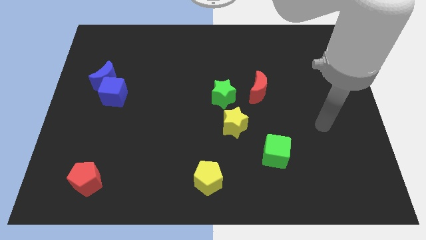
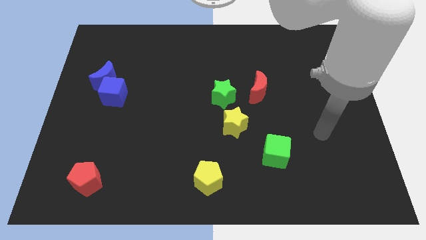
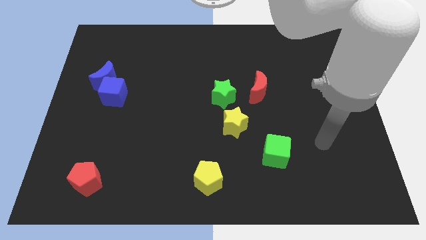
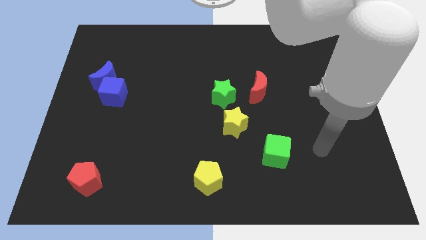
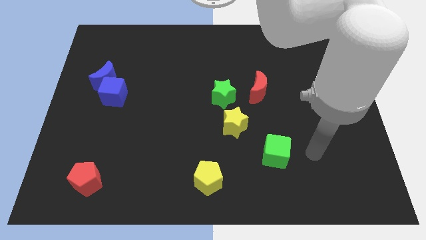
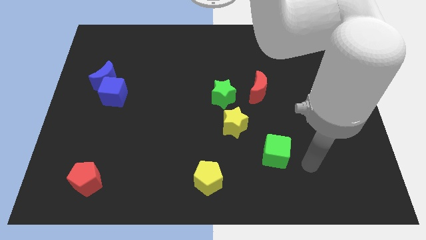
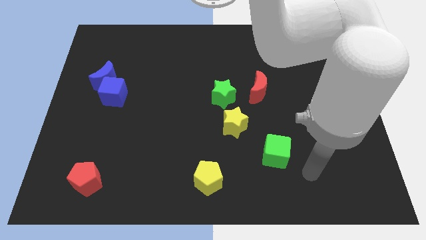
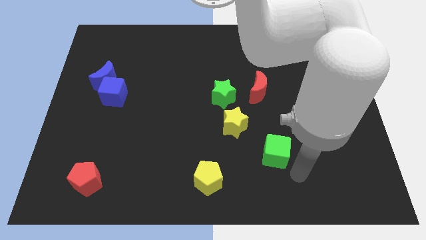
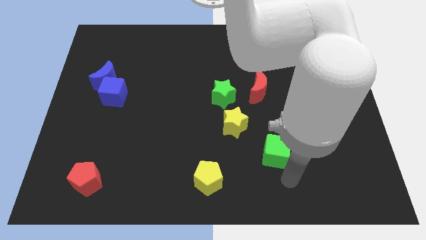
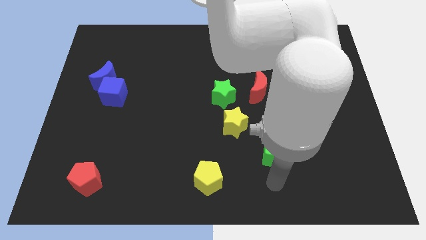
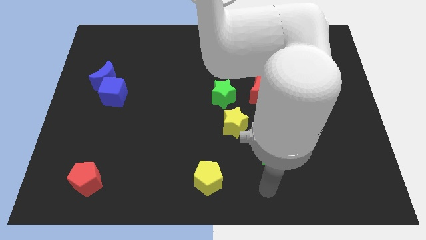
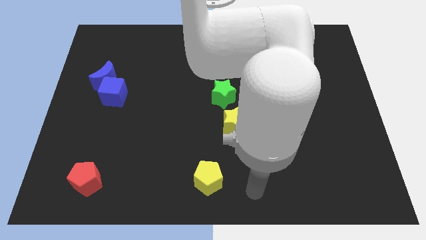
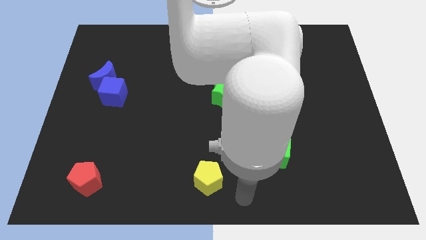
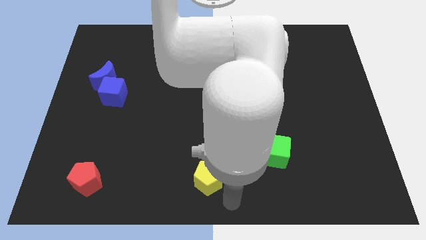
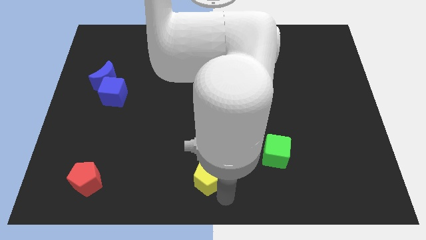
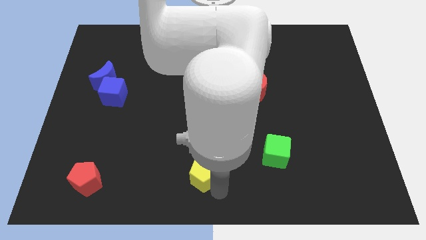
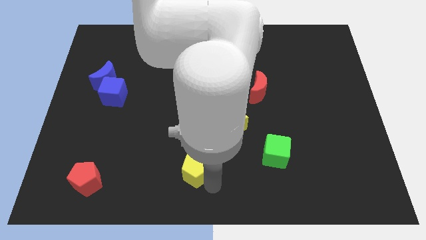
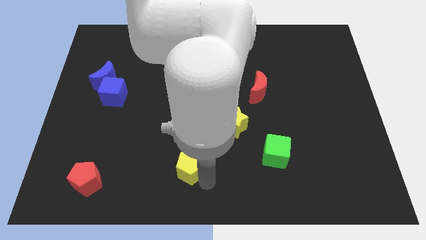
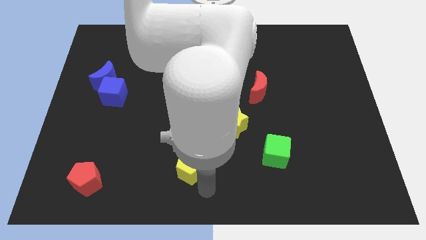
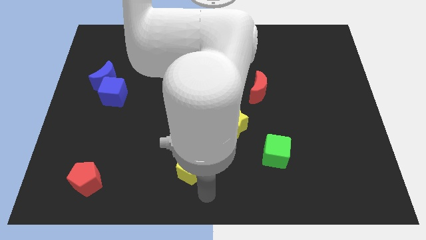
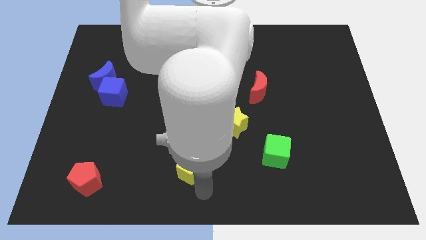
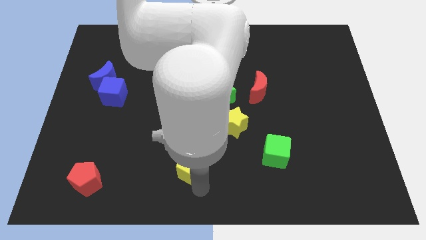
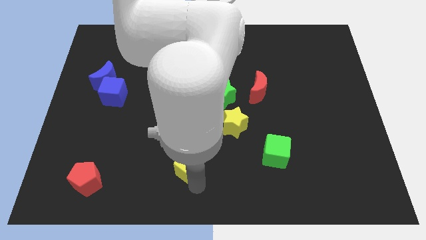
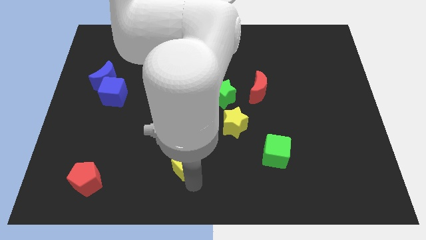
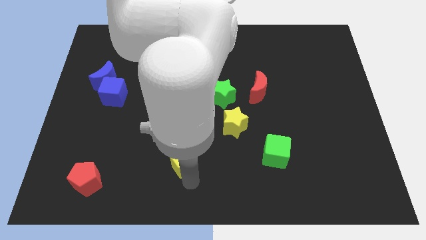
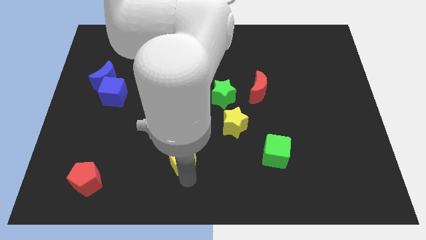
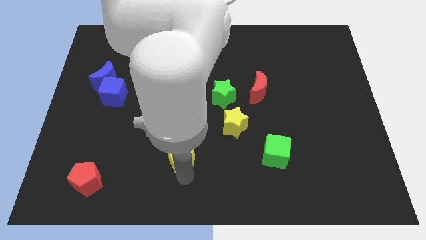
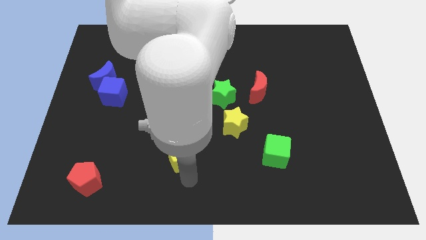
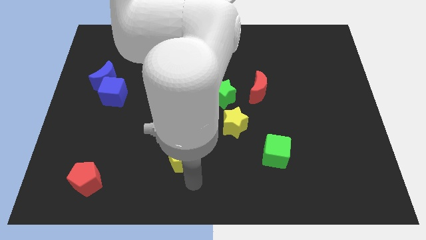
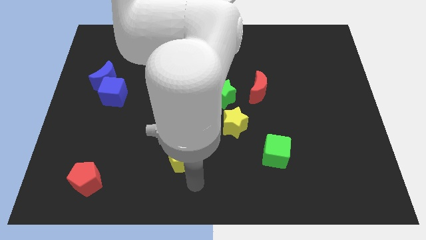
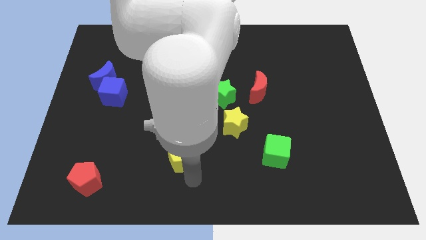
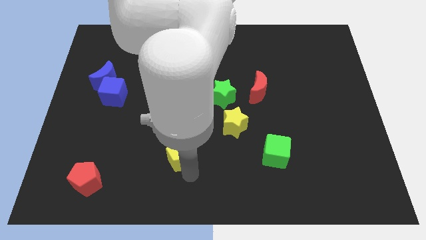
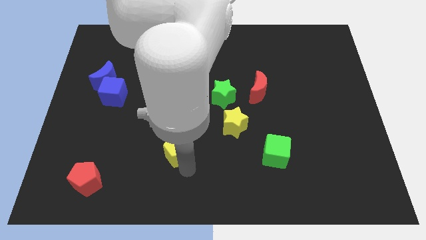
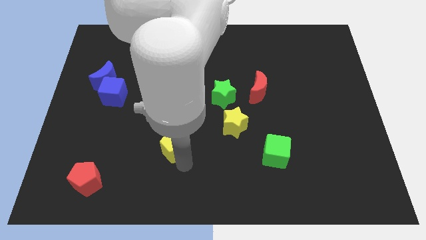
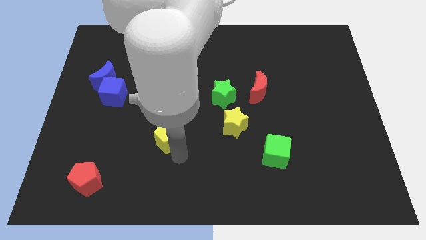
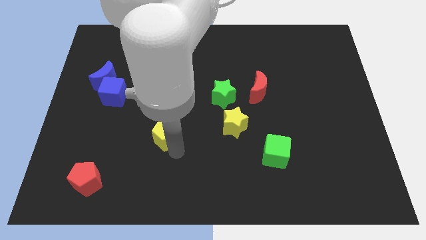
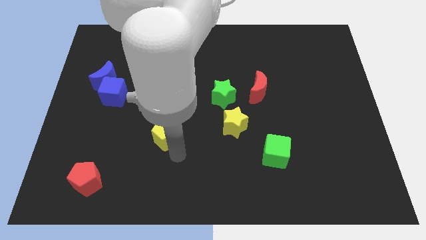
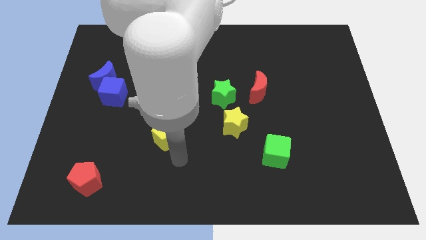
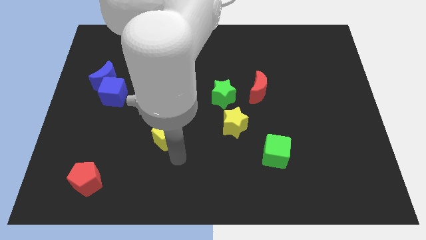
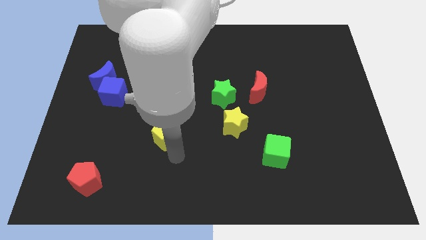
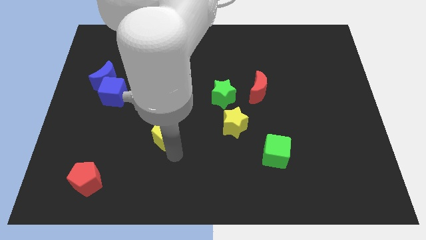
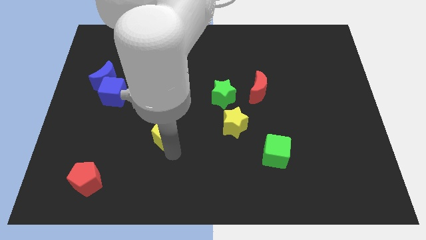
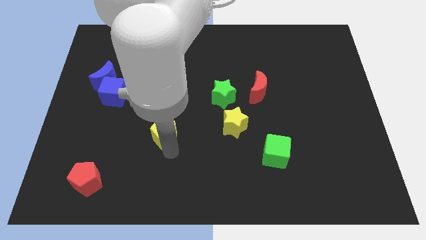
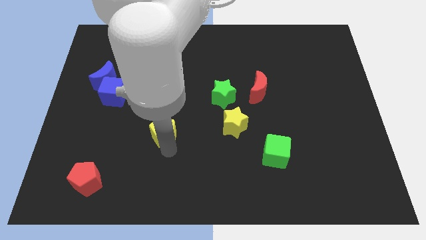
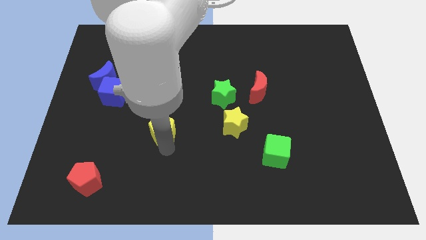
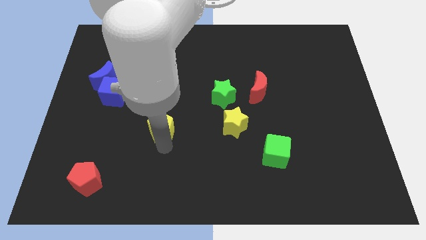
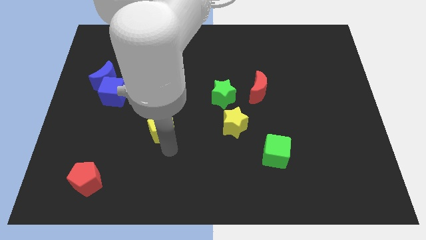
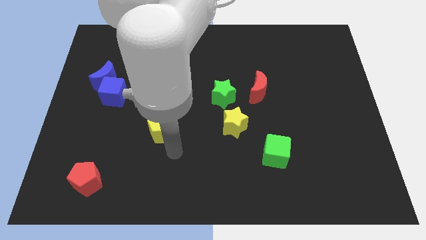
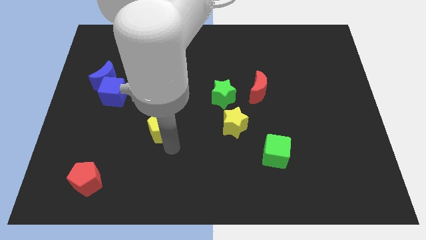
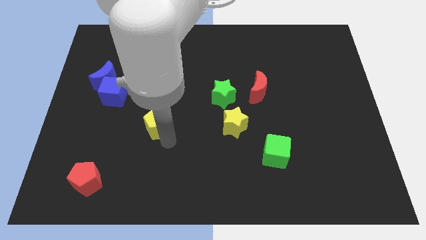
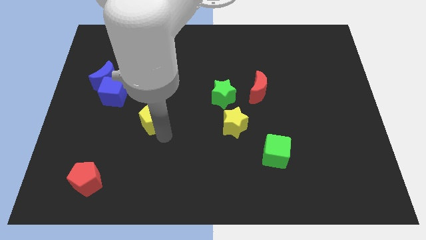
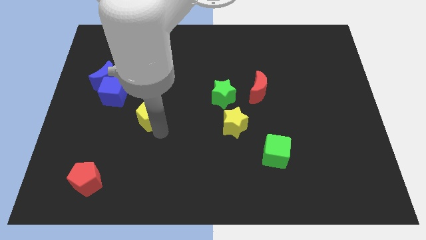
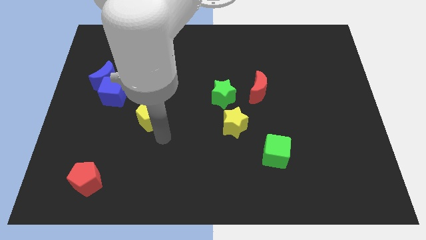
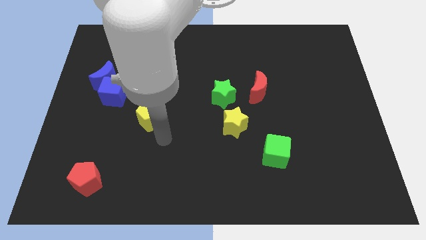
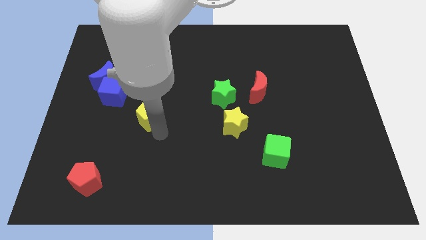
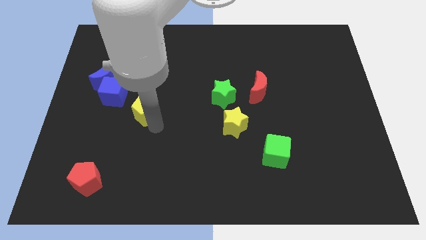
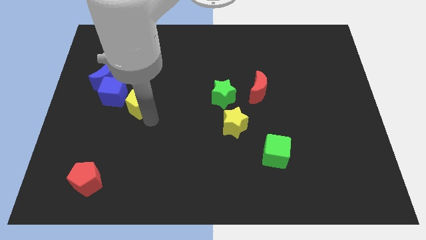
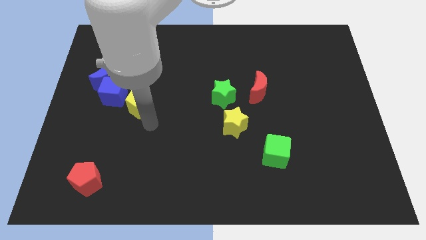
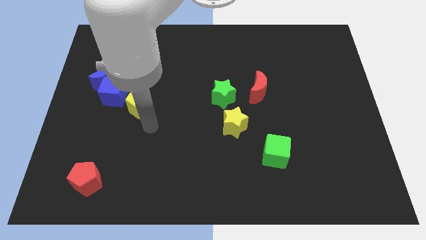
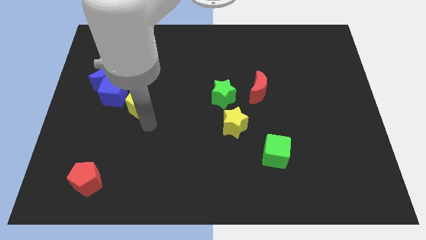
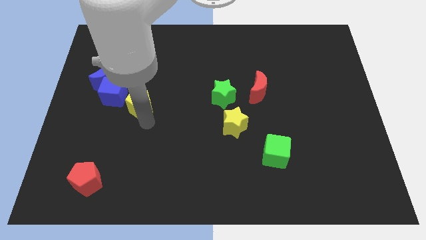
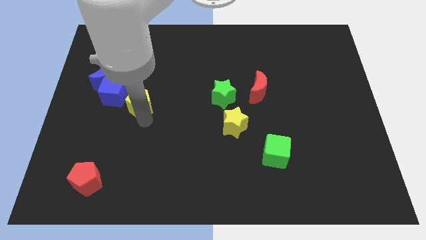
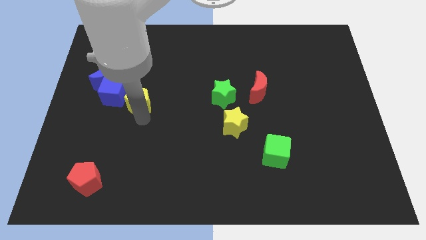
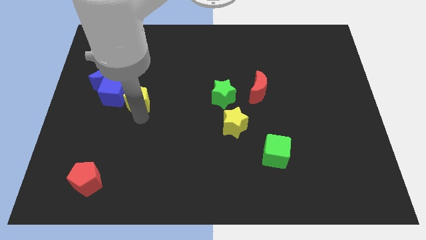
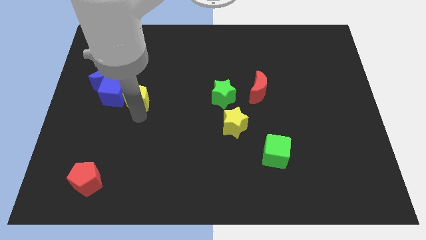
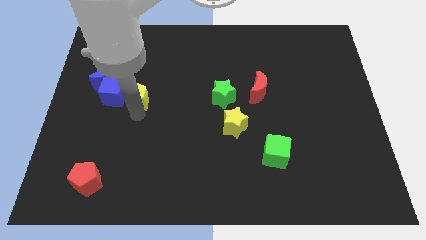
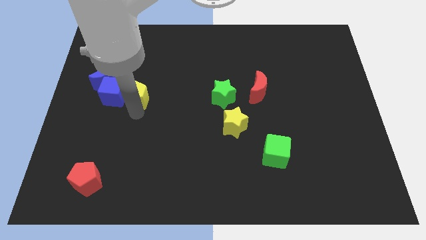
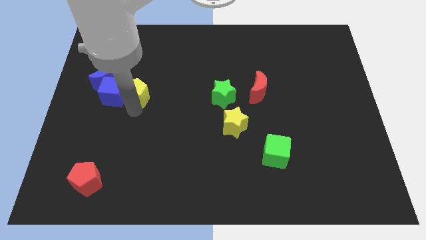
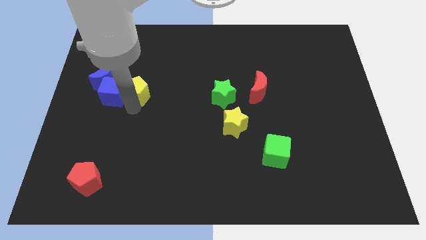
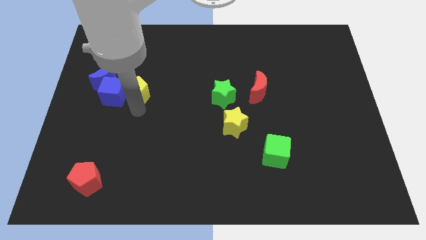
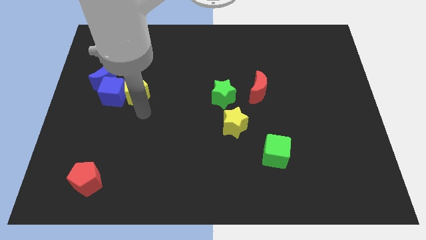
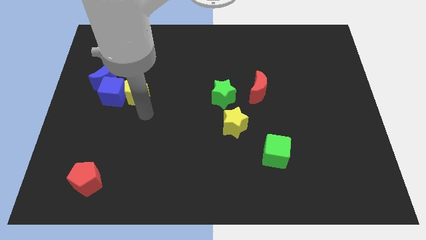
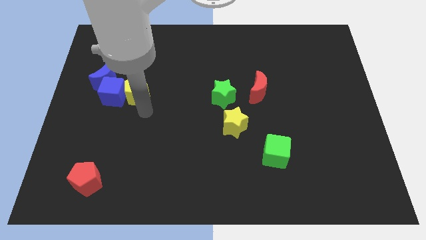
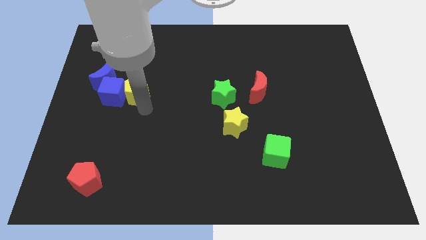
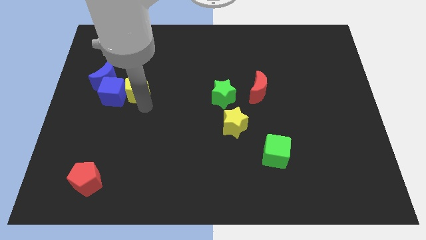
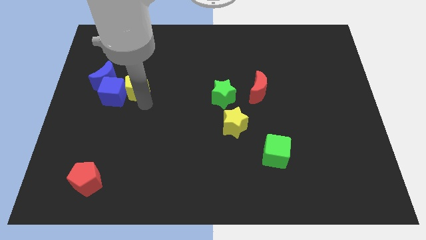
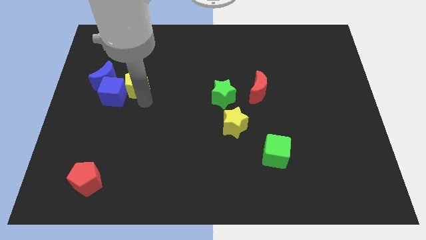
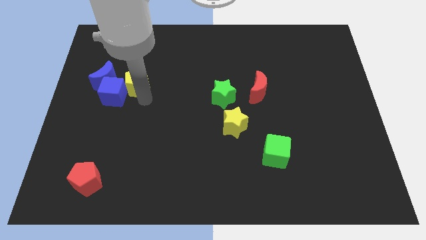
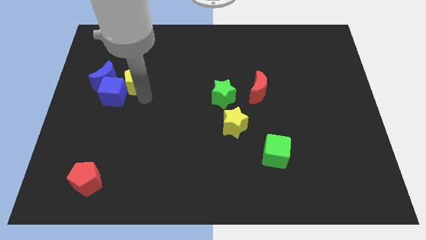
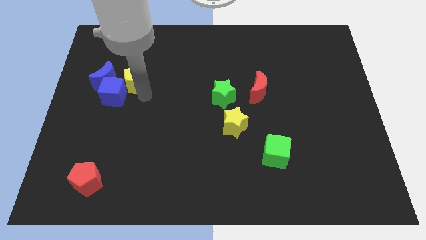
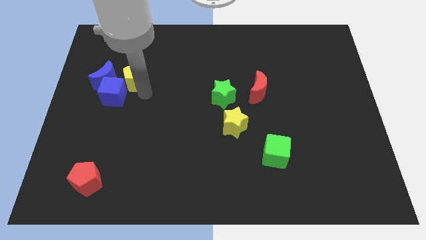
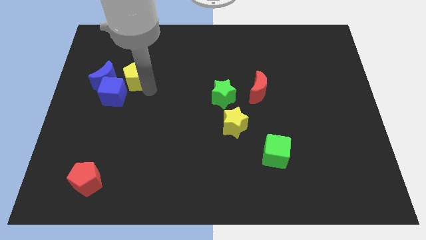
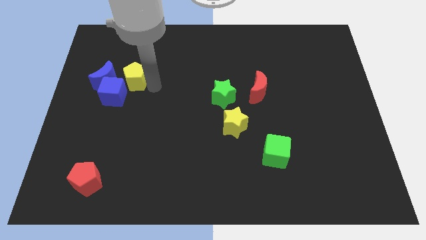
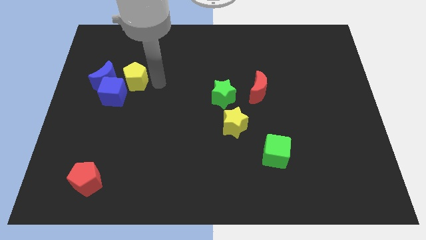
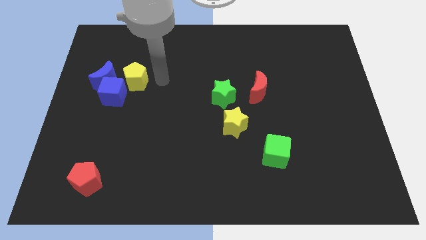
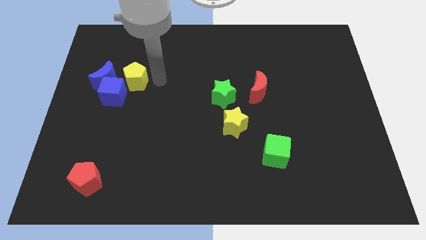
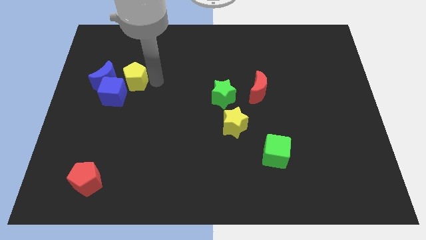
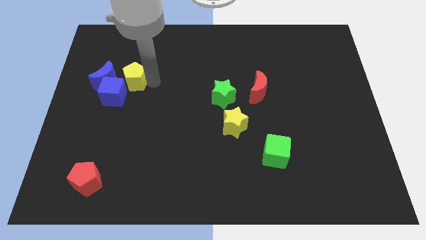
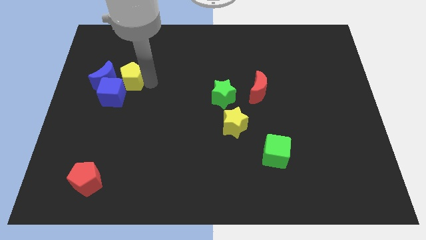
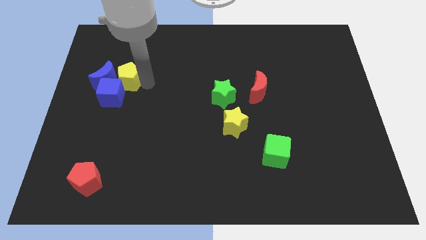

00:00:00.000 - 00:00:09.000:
move the yellow pentagon to the blue moon
